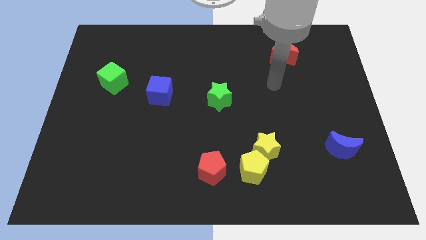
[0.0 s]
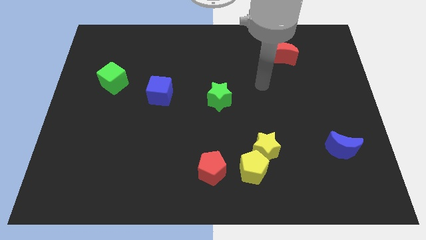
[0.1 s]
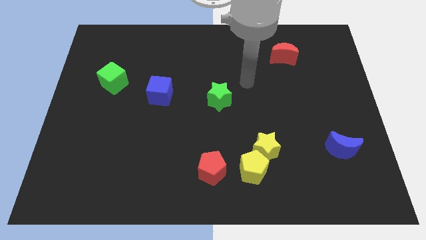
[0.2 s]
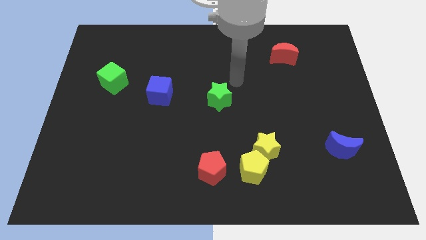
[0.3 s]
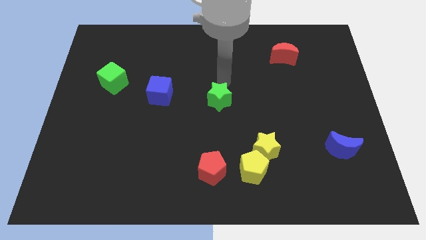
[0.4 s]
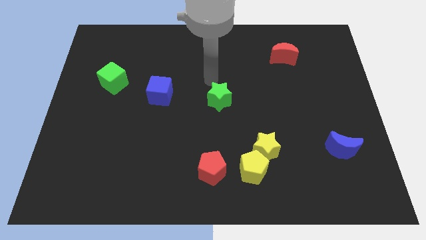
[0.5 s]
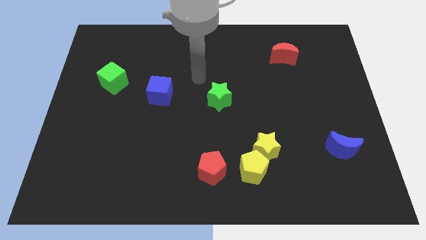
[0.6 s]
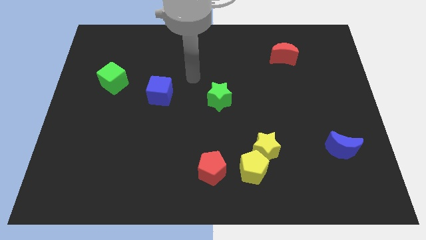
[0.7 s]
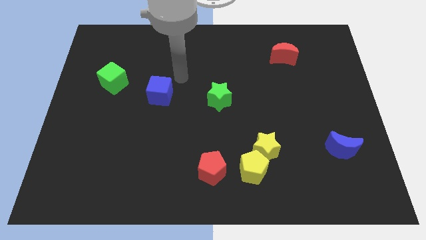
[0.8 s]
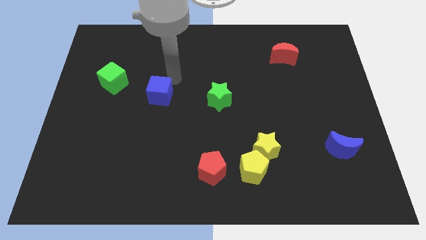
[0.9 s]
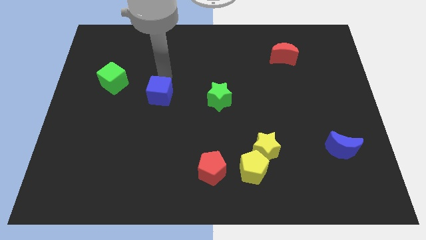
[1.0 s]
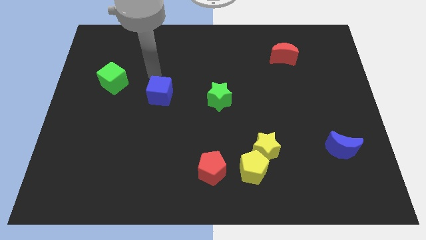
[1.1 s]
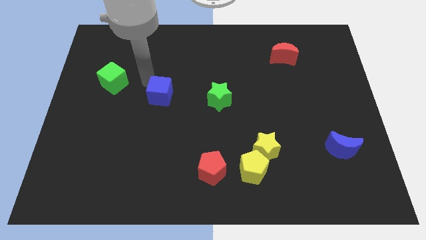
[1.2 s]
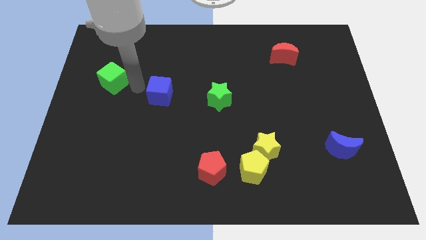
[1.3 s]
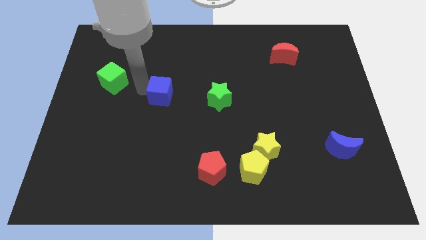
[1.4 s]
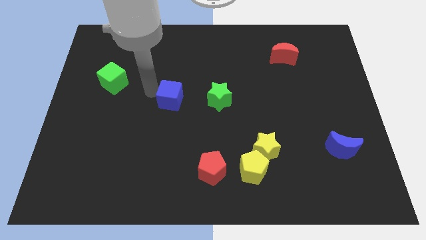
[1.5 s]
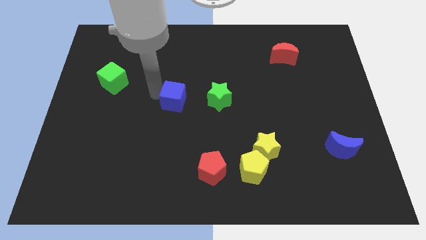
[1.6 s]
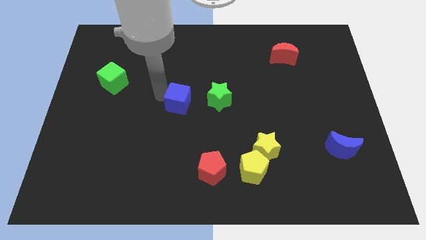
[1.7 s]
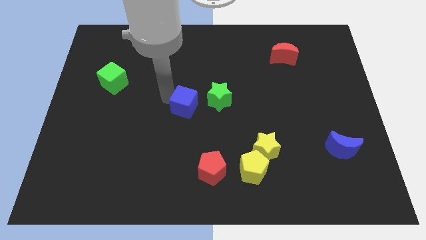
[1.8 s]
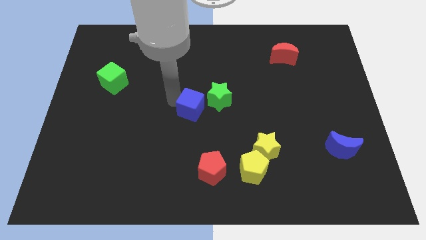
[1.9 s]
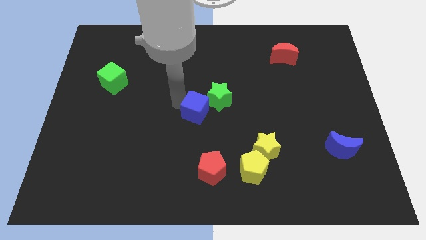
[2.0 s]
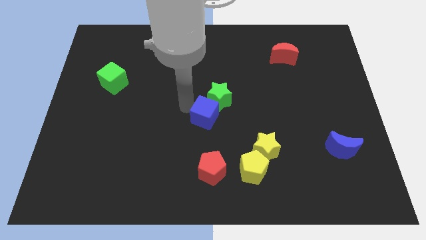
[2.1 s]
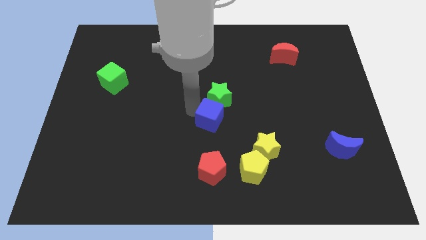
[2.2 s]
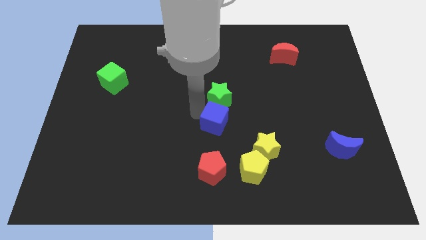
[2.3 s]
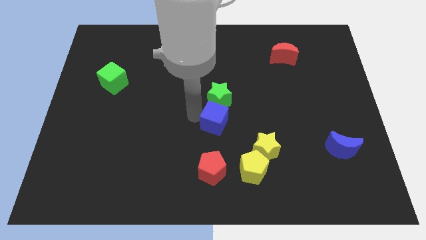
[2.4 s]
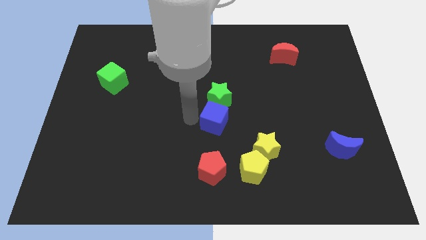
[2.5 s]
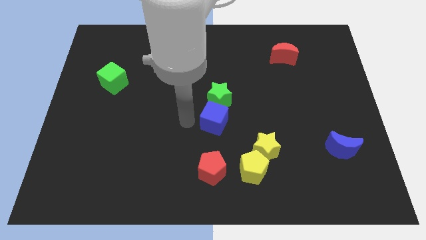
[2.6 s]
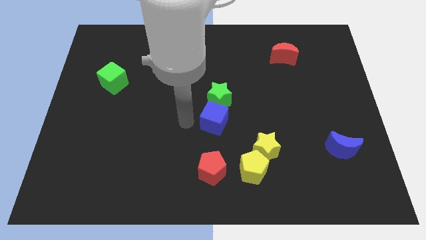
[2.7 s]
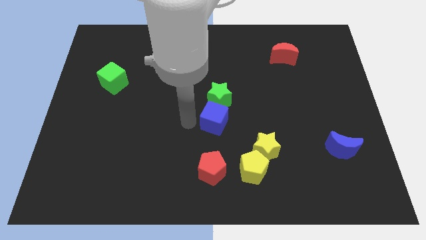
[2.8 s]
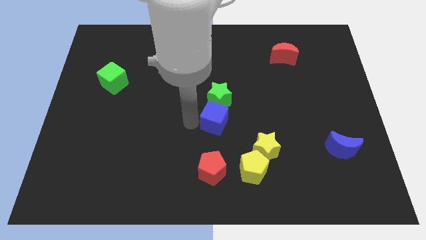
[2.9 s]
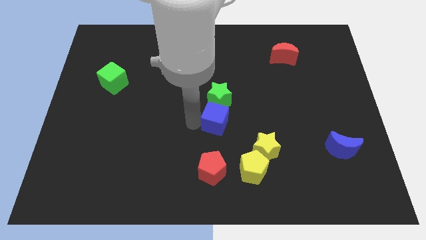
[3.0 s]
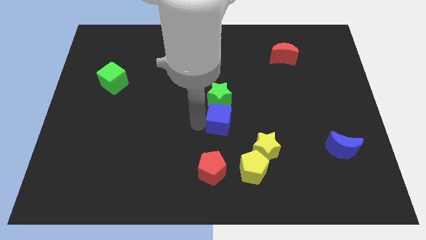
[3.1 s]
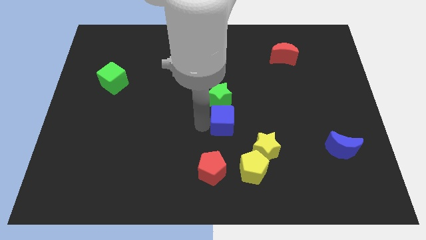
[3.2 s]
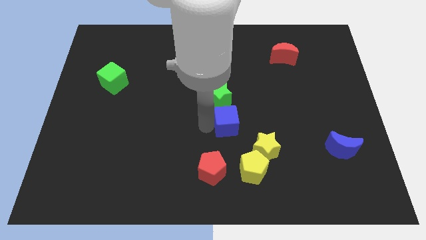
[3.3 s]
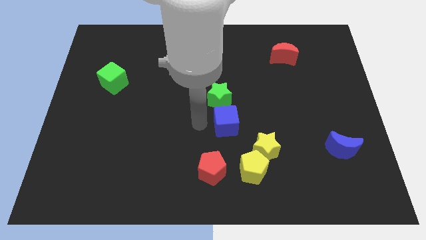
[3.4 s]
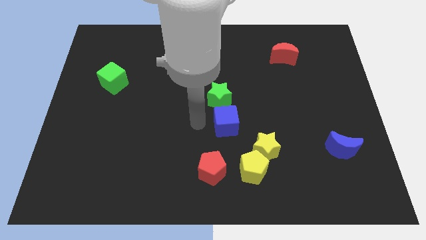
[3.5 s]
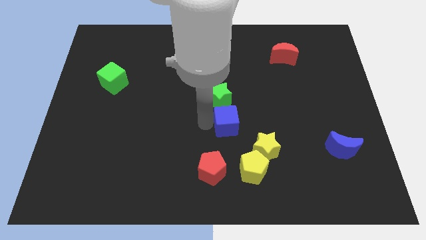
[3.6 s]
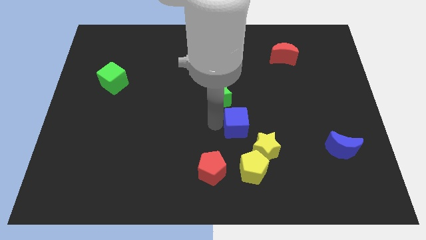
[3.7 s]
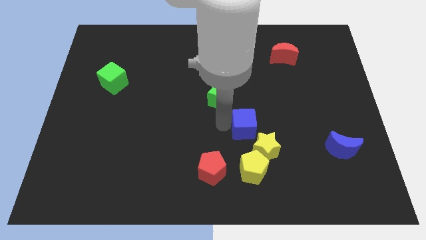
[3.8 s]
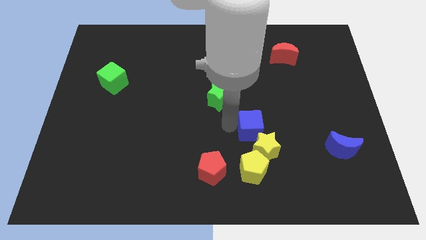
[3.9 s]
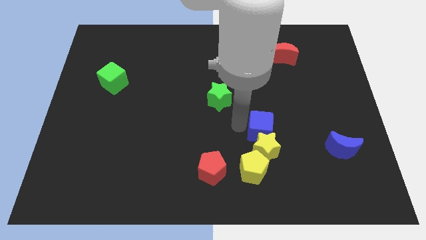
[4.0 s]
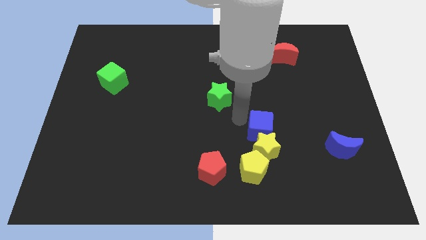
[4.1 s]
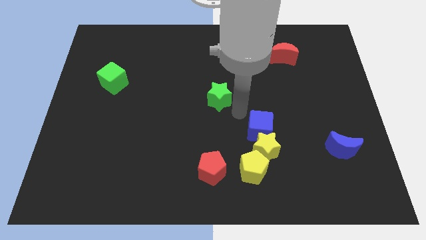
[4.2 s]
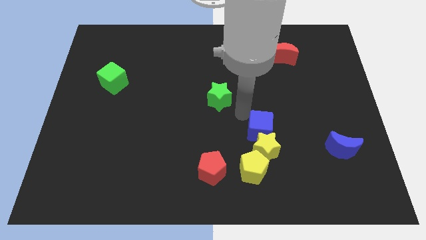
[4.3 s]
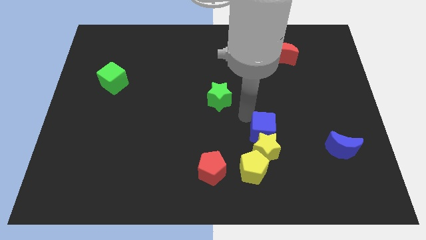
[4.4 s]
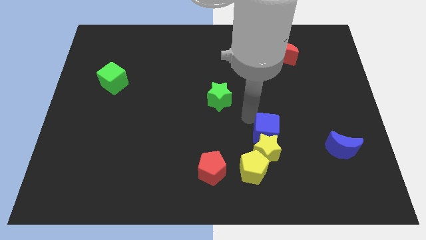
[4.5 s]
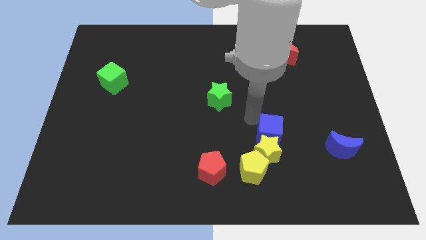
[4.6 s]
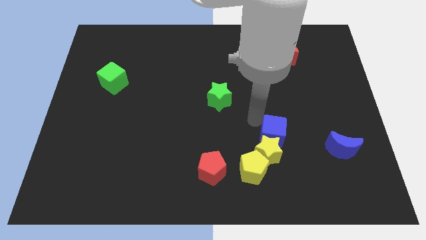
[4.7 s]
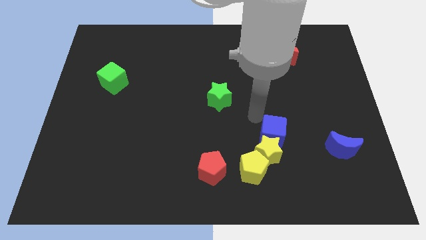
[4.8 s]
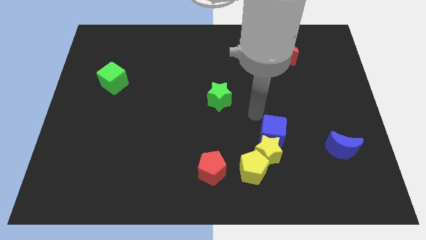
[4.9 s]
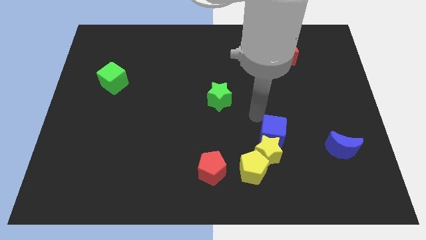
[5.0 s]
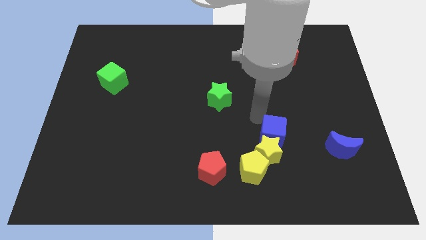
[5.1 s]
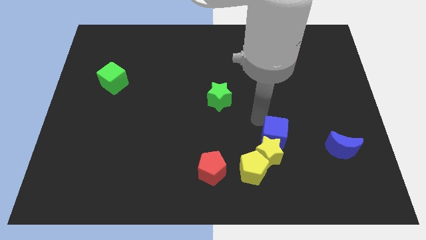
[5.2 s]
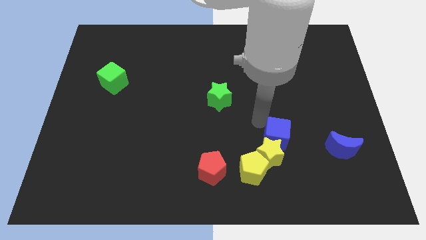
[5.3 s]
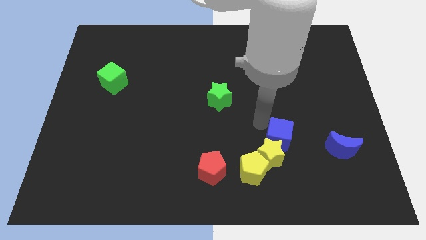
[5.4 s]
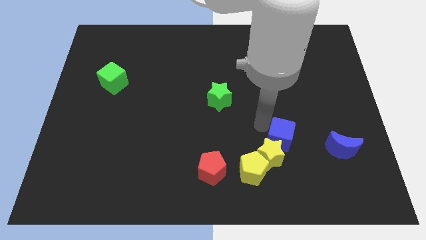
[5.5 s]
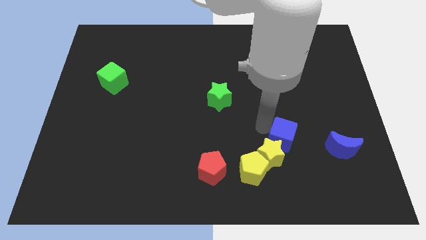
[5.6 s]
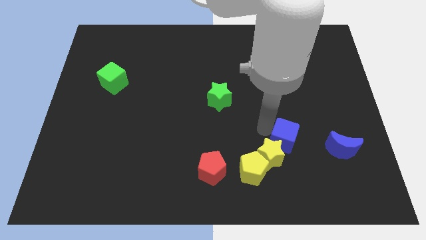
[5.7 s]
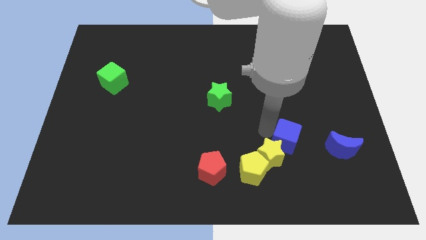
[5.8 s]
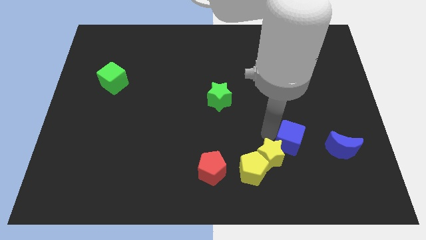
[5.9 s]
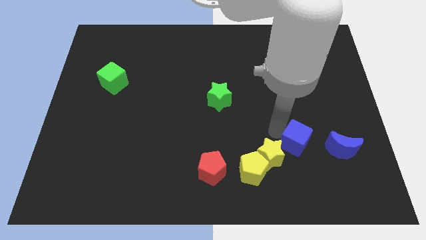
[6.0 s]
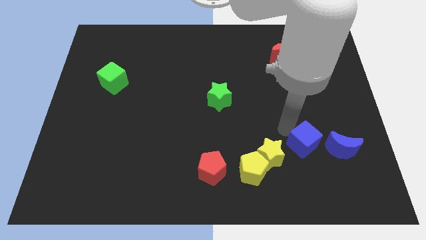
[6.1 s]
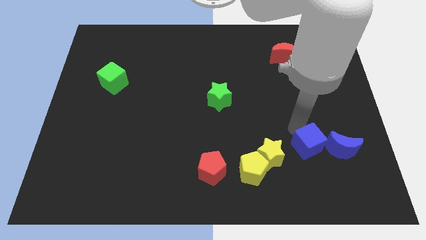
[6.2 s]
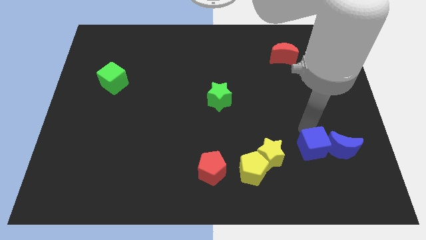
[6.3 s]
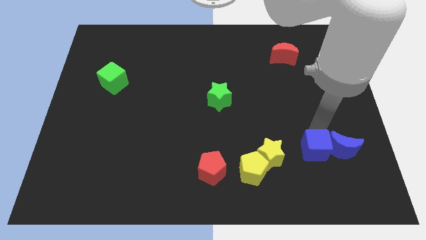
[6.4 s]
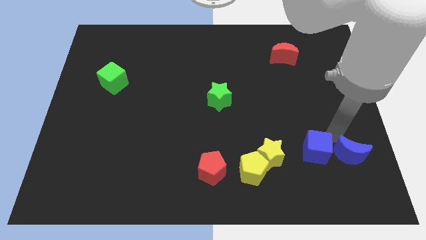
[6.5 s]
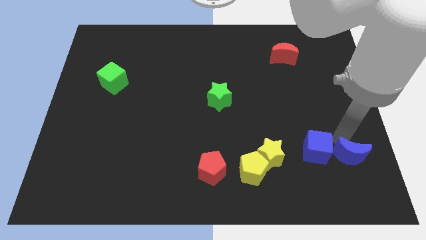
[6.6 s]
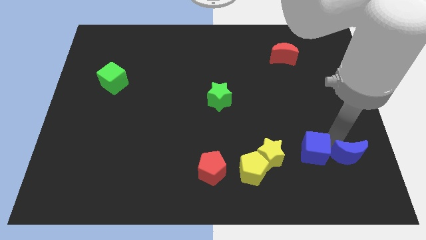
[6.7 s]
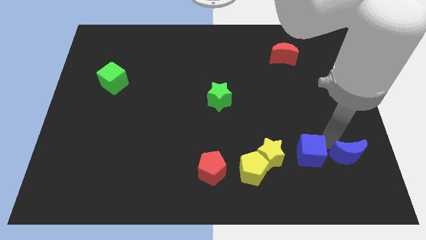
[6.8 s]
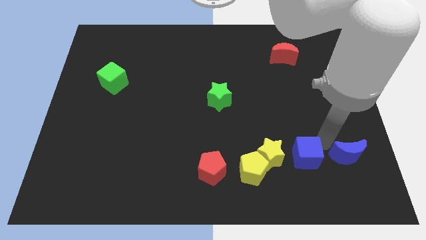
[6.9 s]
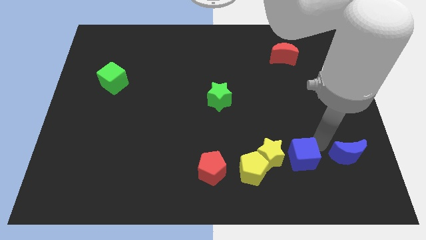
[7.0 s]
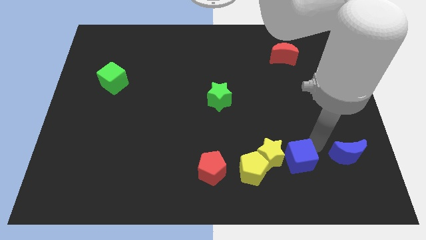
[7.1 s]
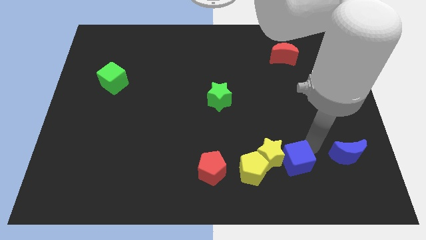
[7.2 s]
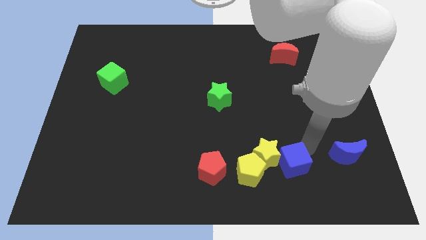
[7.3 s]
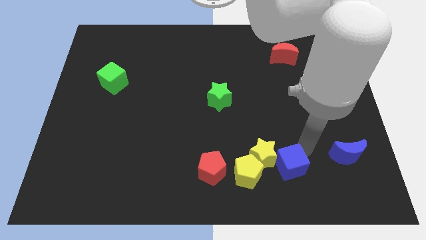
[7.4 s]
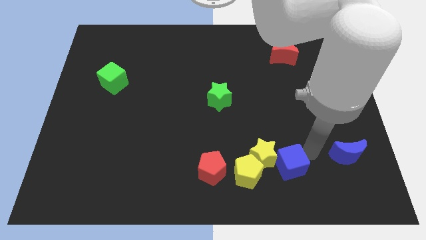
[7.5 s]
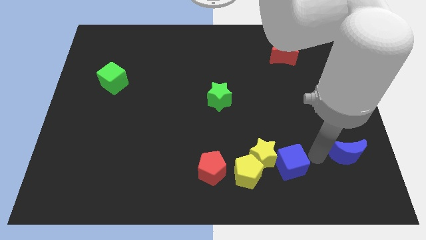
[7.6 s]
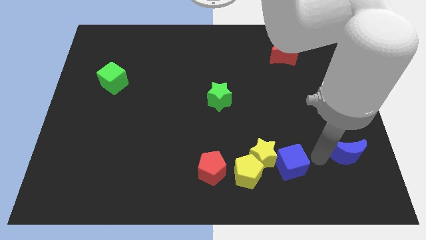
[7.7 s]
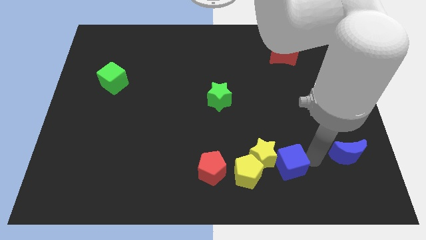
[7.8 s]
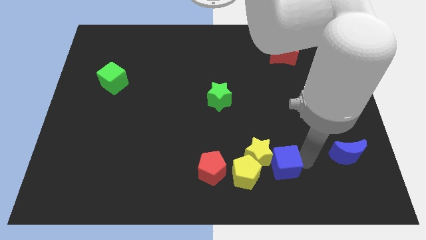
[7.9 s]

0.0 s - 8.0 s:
slide the blue cube to the right of the red pentagon
